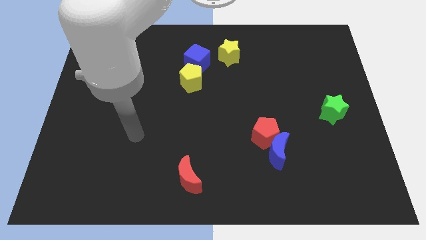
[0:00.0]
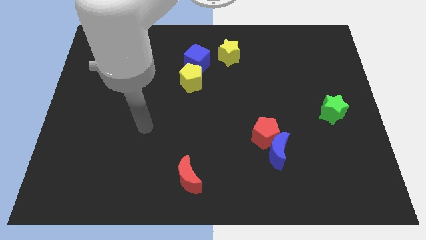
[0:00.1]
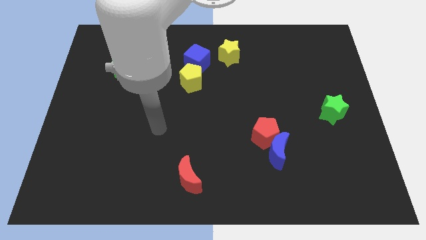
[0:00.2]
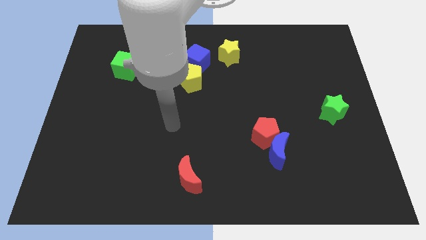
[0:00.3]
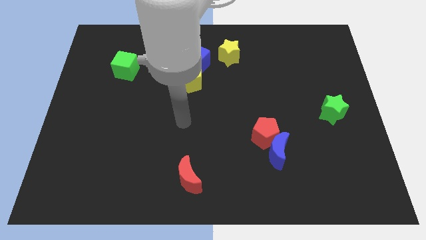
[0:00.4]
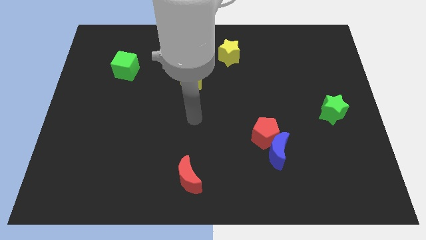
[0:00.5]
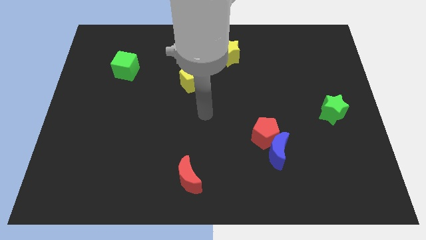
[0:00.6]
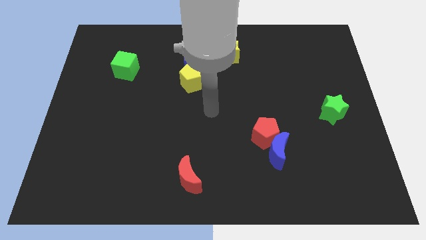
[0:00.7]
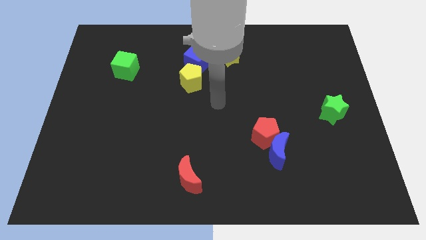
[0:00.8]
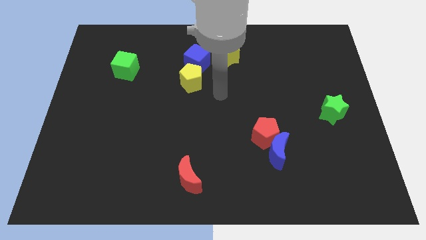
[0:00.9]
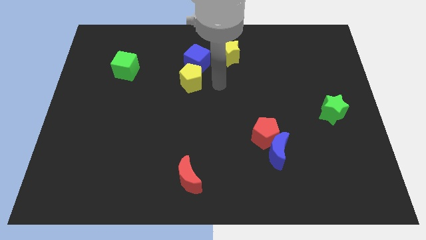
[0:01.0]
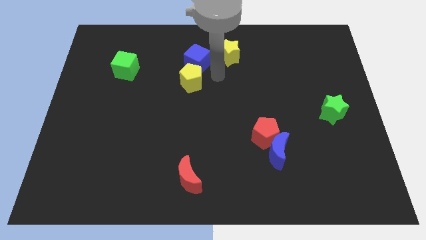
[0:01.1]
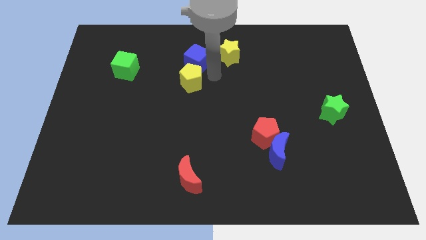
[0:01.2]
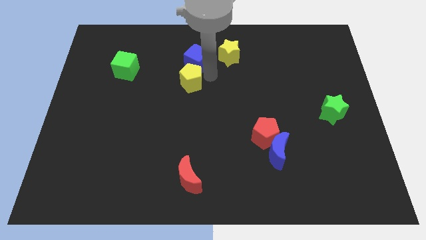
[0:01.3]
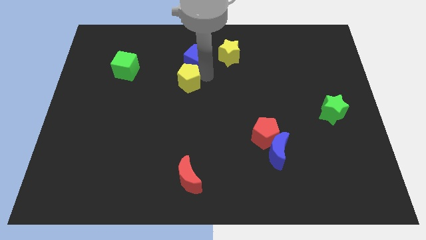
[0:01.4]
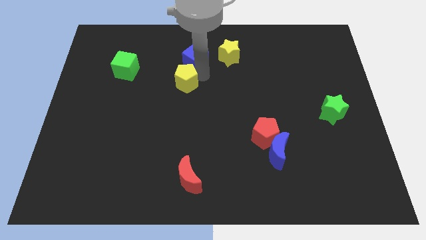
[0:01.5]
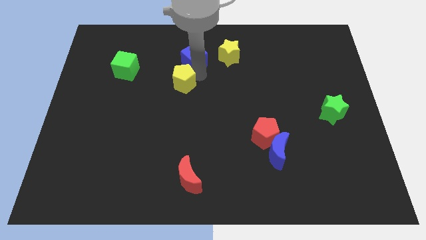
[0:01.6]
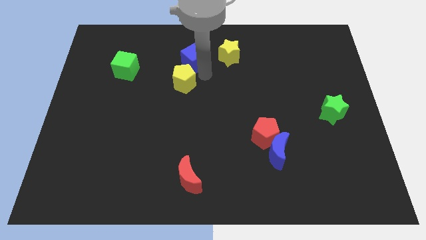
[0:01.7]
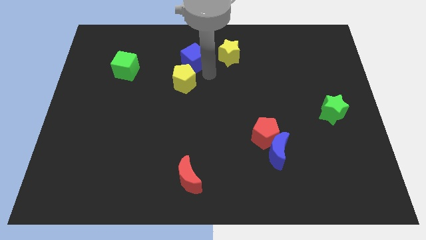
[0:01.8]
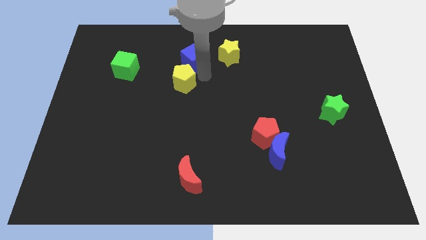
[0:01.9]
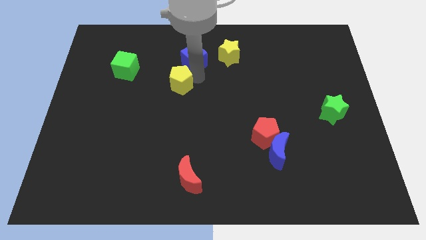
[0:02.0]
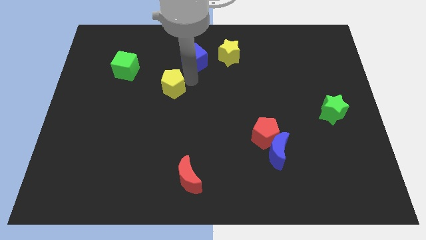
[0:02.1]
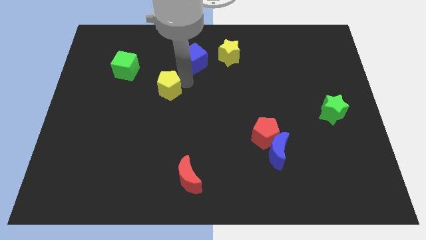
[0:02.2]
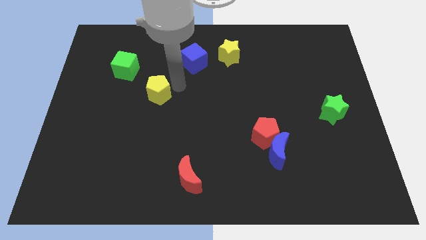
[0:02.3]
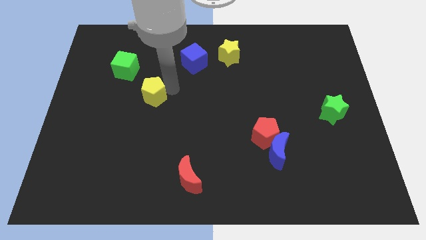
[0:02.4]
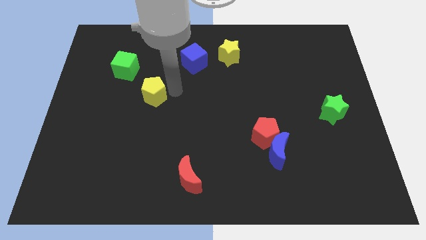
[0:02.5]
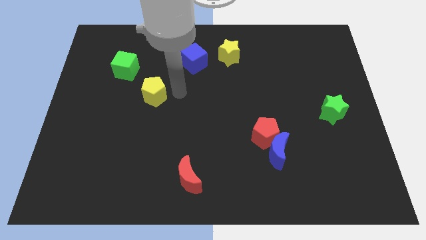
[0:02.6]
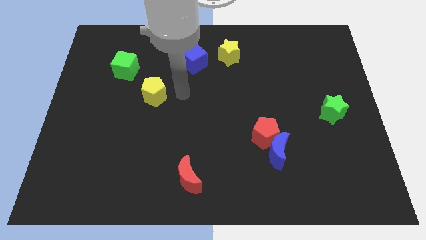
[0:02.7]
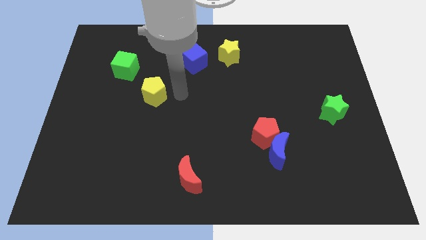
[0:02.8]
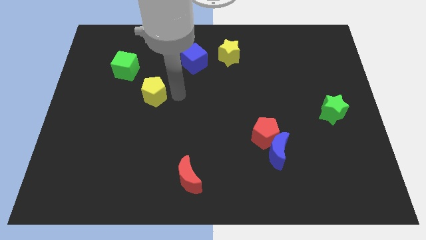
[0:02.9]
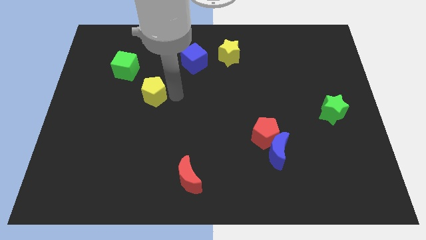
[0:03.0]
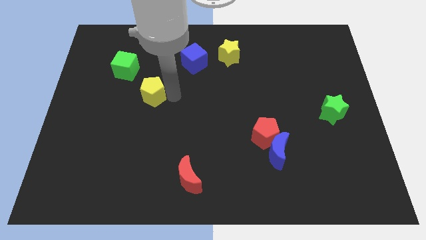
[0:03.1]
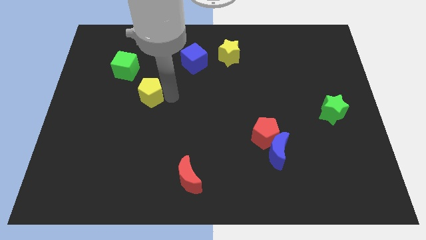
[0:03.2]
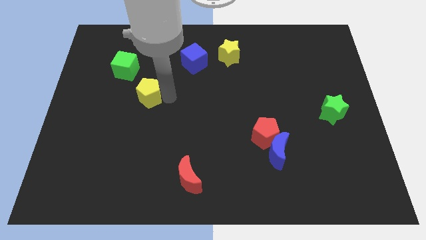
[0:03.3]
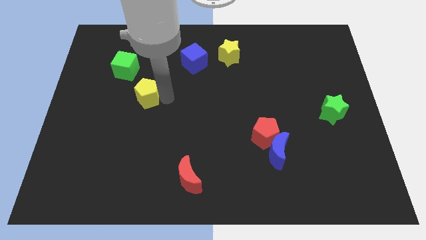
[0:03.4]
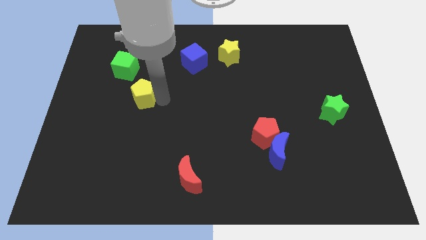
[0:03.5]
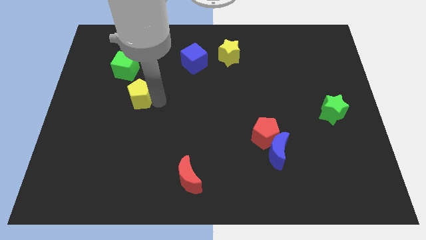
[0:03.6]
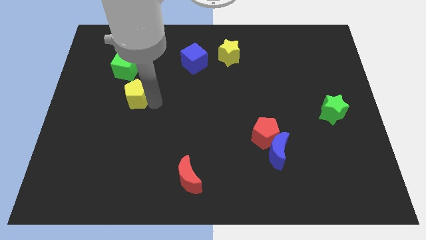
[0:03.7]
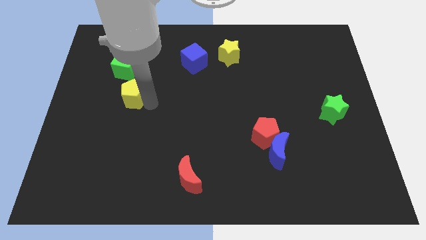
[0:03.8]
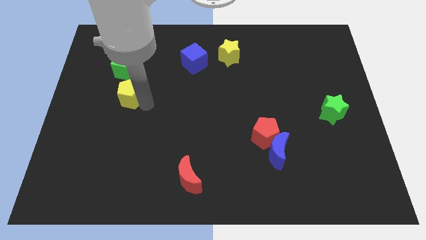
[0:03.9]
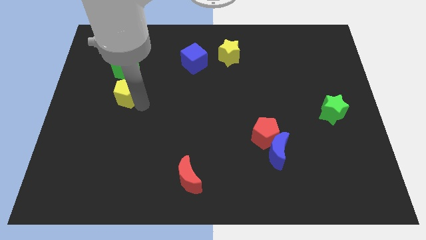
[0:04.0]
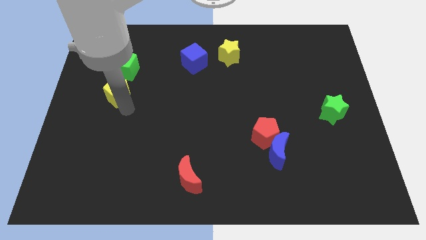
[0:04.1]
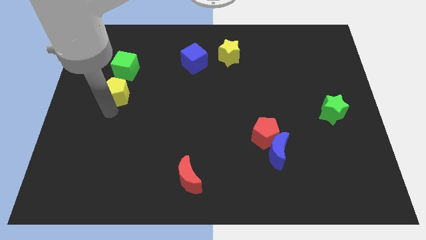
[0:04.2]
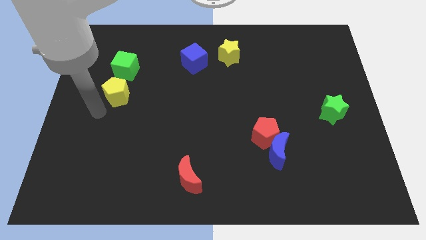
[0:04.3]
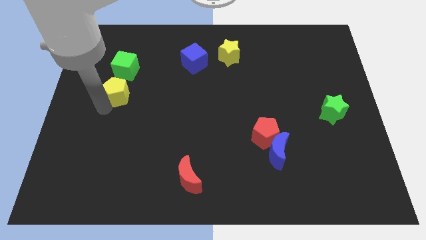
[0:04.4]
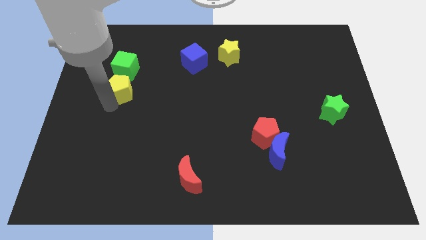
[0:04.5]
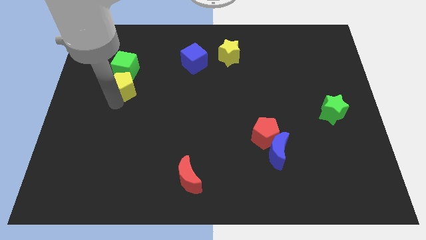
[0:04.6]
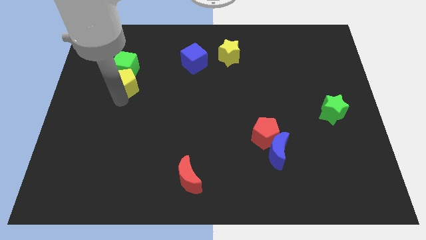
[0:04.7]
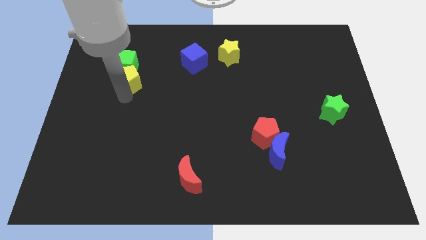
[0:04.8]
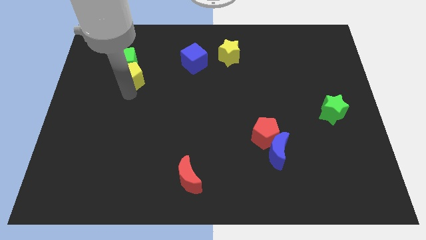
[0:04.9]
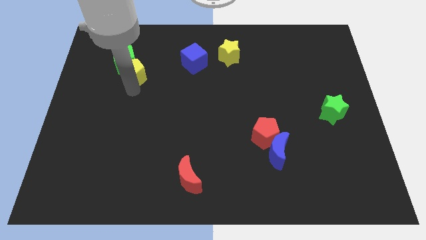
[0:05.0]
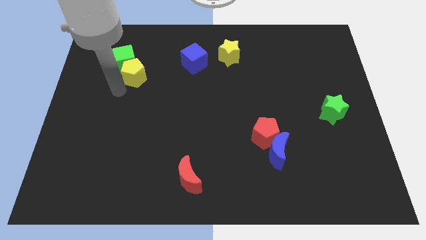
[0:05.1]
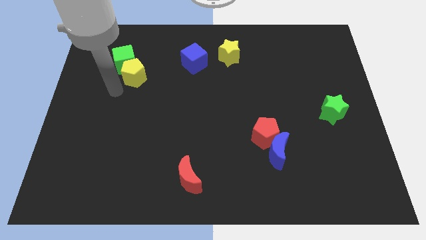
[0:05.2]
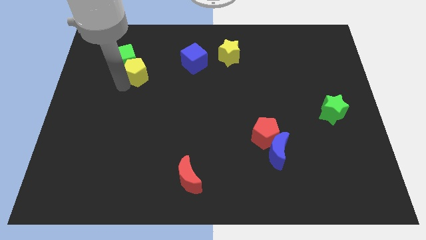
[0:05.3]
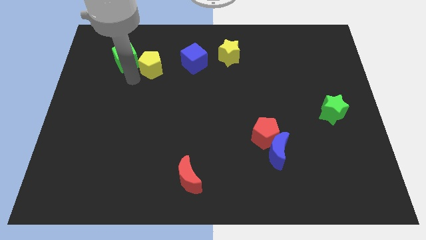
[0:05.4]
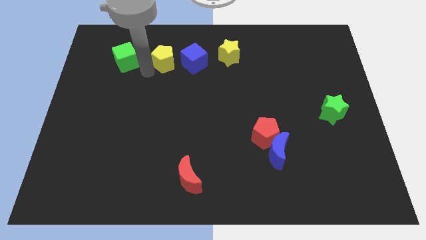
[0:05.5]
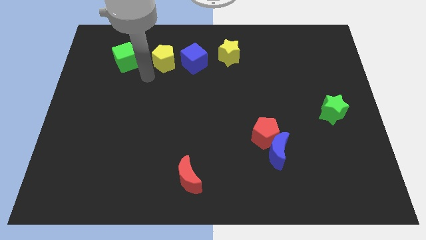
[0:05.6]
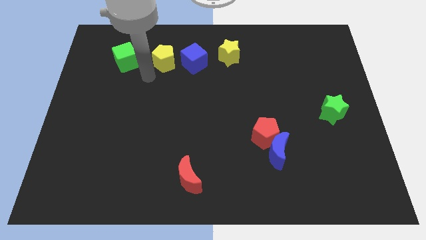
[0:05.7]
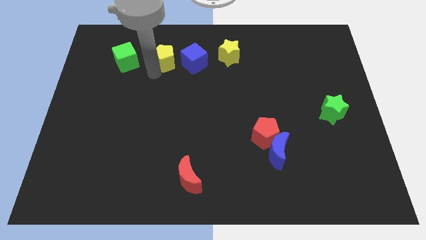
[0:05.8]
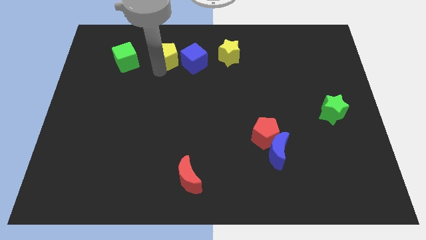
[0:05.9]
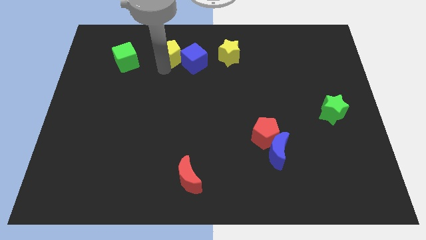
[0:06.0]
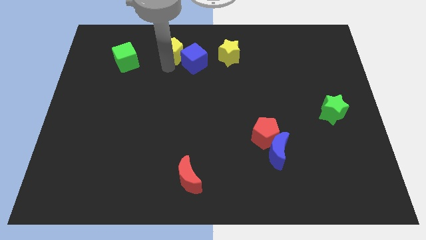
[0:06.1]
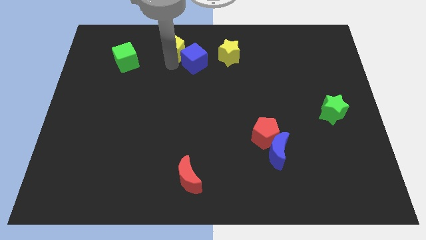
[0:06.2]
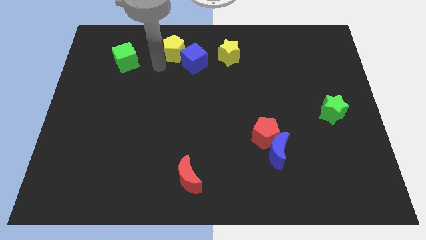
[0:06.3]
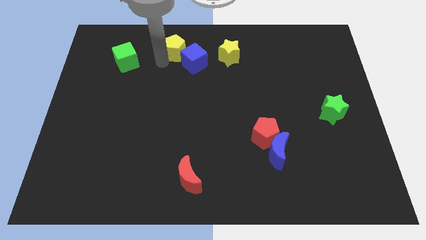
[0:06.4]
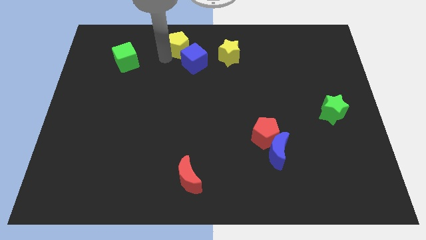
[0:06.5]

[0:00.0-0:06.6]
move the yellow pentagon to the top

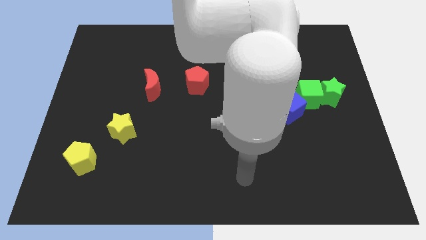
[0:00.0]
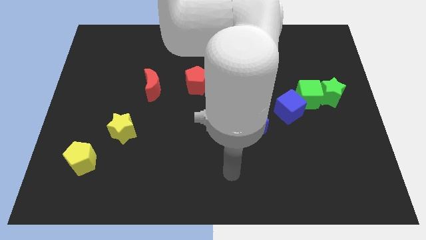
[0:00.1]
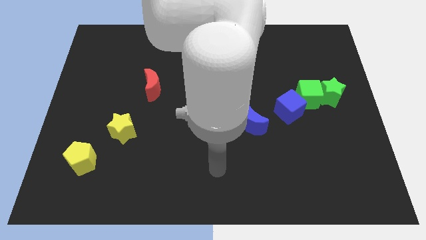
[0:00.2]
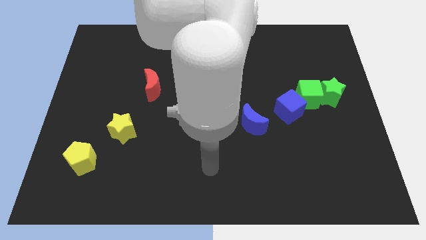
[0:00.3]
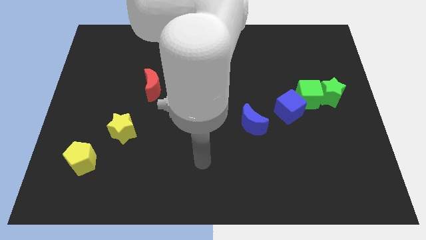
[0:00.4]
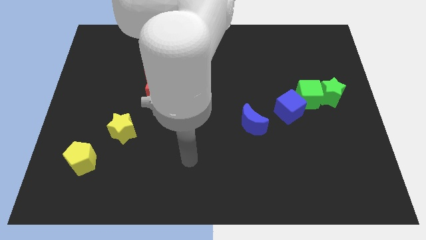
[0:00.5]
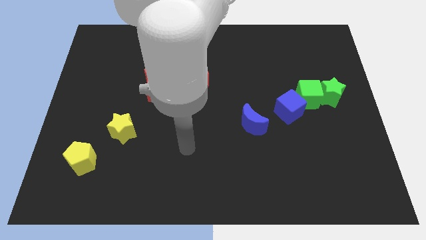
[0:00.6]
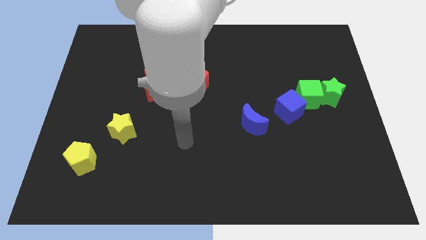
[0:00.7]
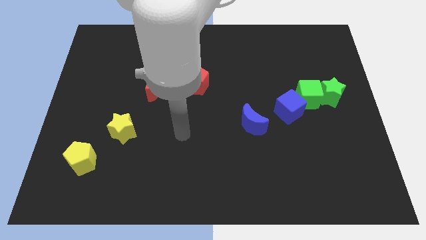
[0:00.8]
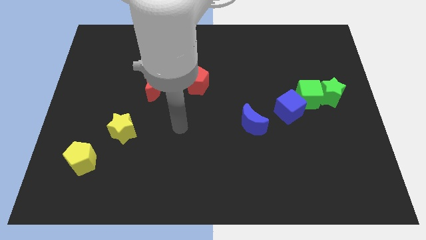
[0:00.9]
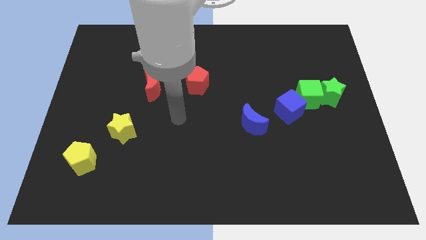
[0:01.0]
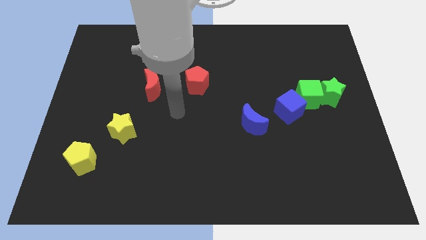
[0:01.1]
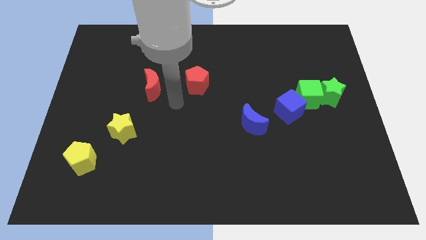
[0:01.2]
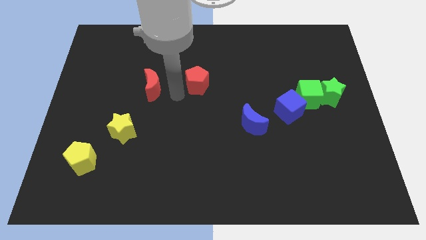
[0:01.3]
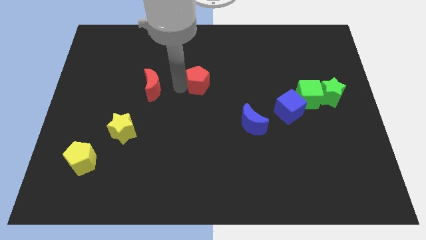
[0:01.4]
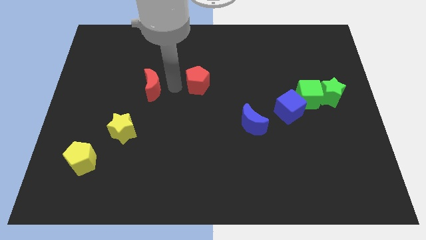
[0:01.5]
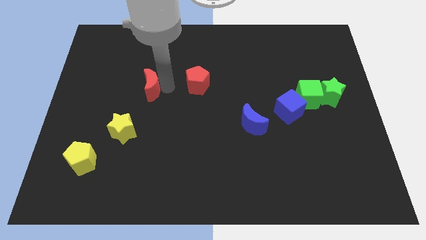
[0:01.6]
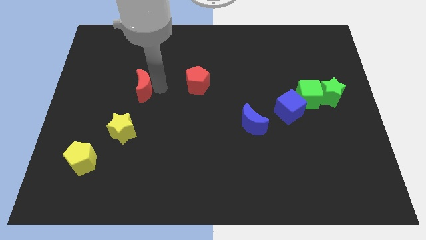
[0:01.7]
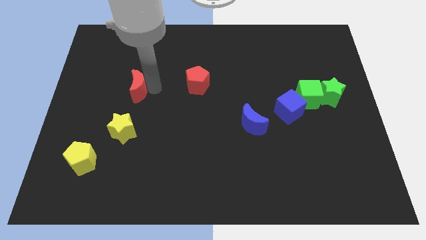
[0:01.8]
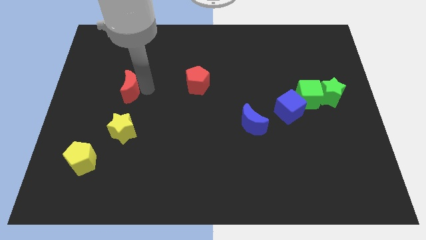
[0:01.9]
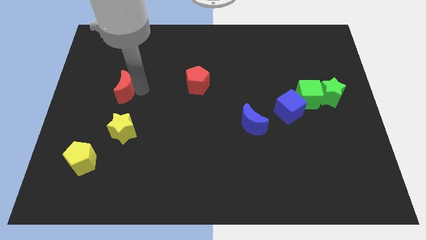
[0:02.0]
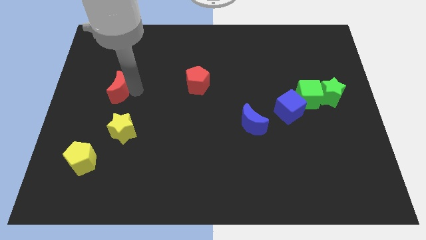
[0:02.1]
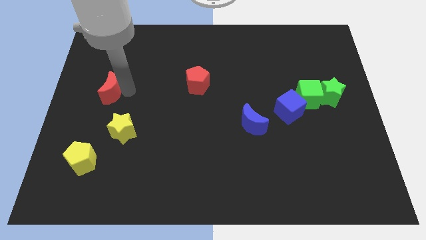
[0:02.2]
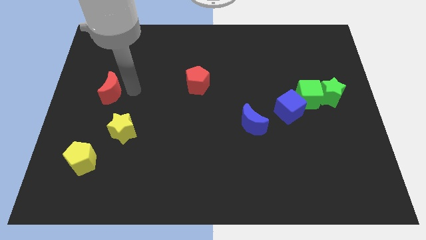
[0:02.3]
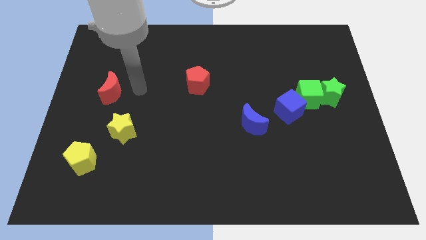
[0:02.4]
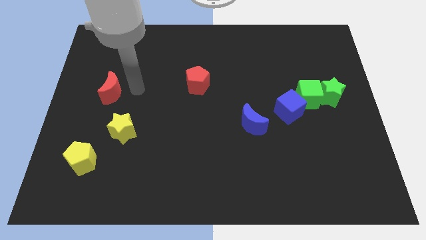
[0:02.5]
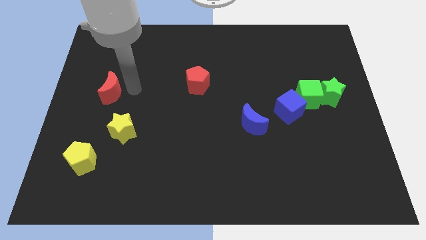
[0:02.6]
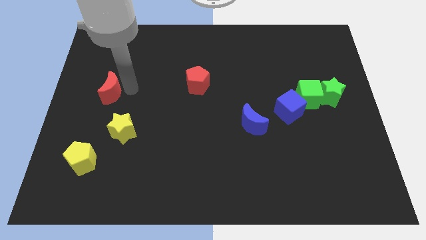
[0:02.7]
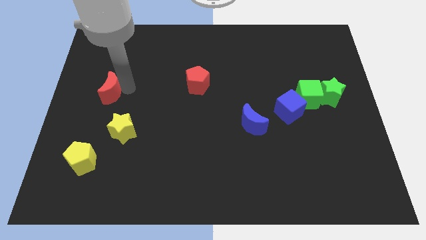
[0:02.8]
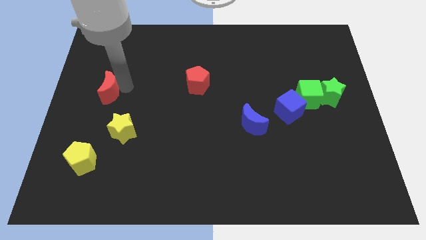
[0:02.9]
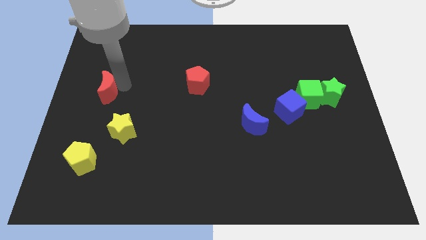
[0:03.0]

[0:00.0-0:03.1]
put the red moon to the left side
